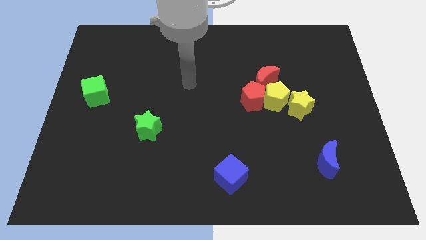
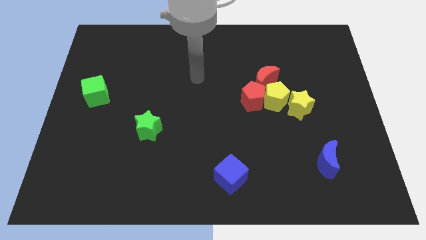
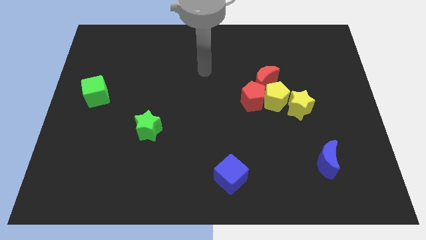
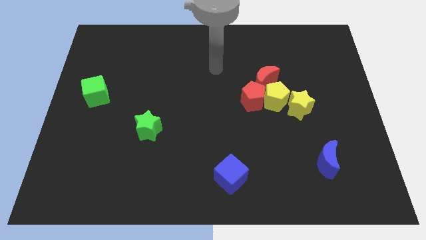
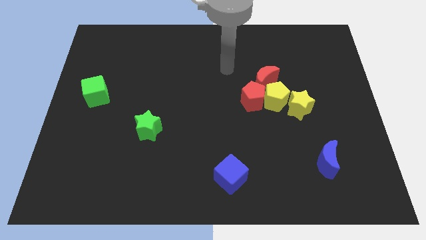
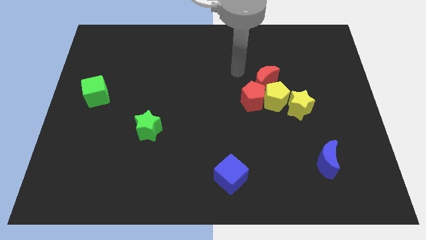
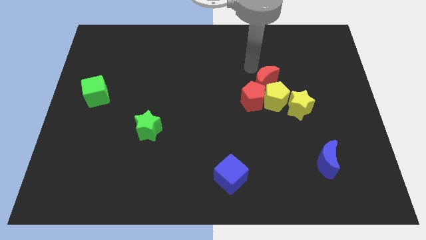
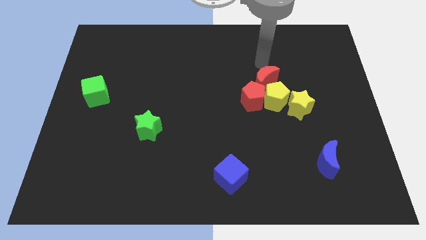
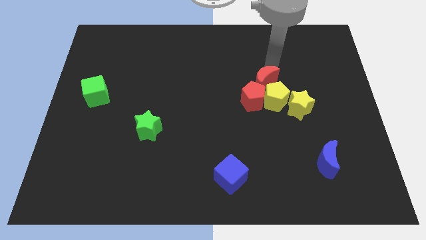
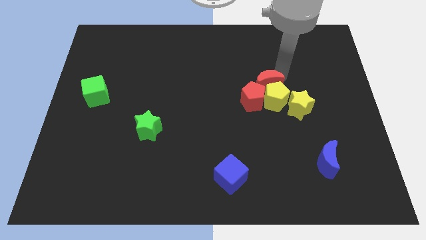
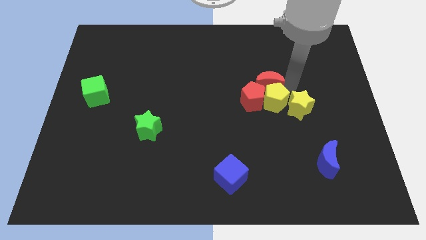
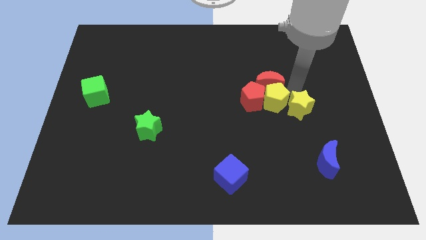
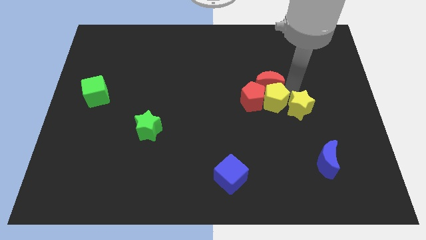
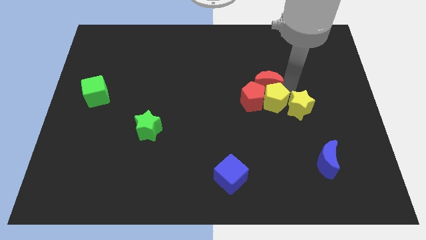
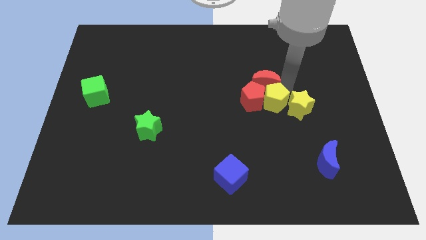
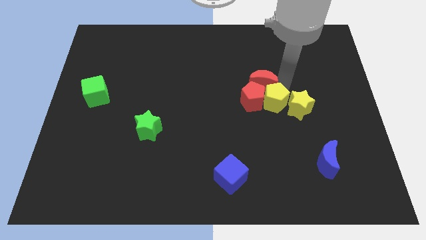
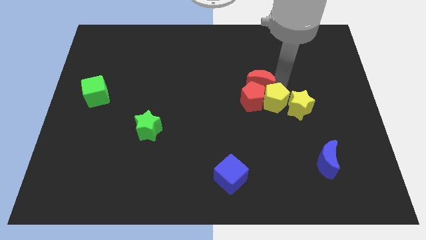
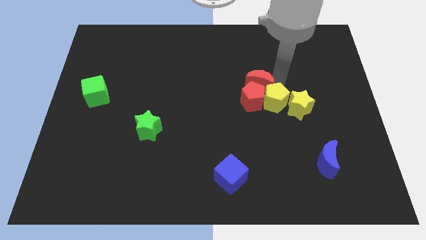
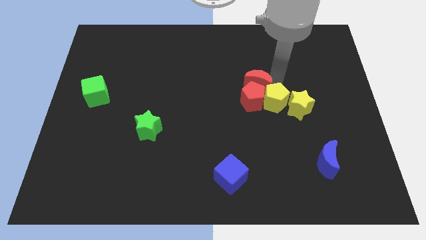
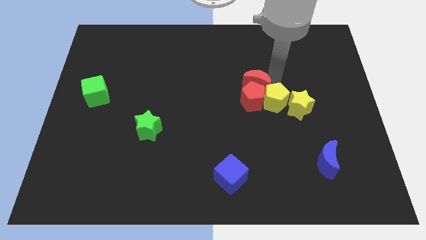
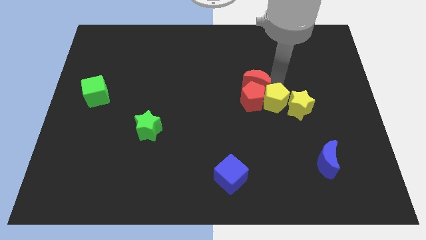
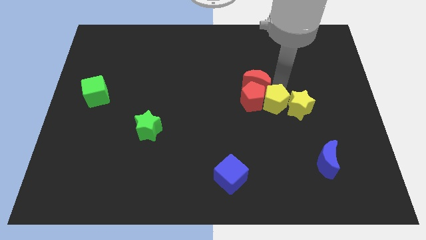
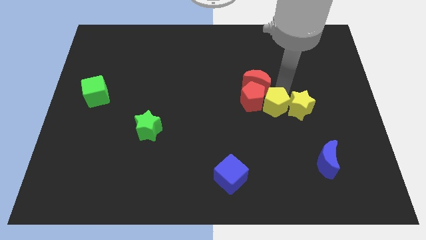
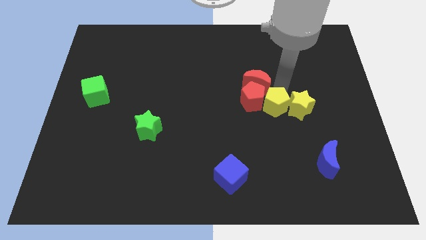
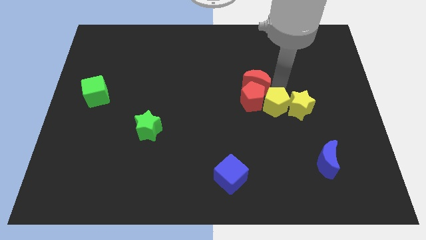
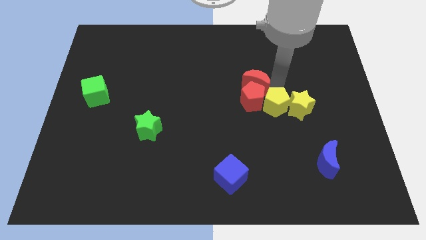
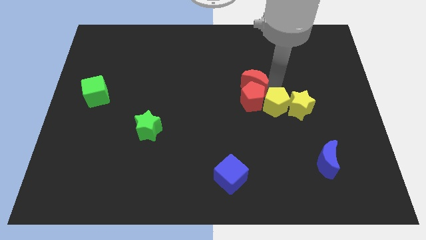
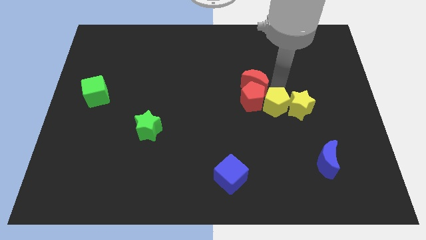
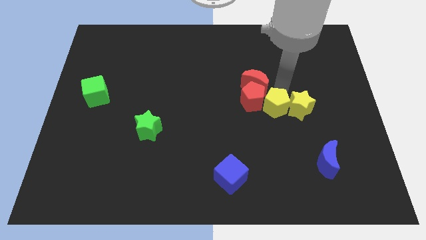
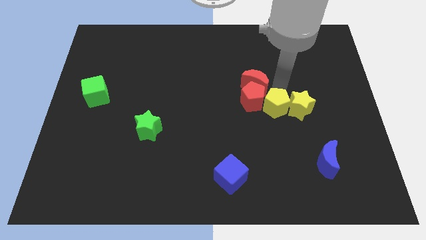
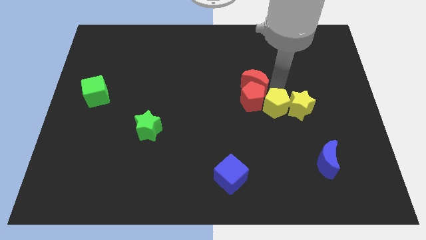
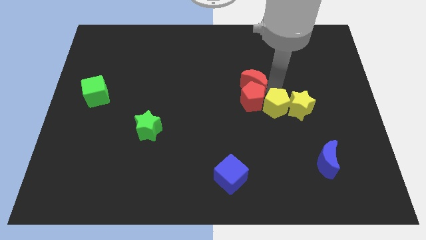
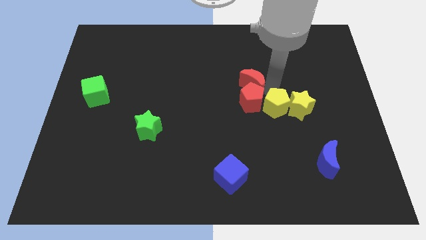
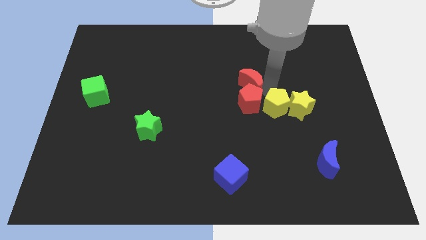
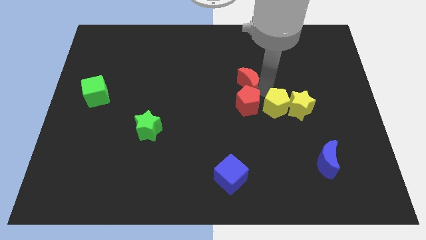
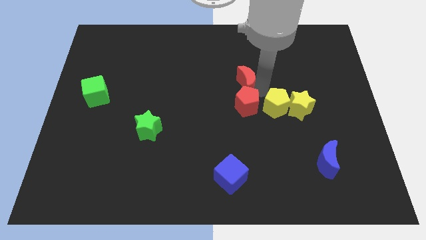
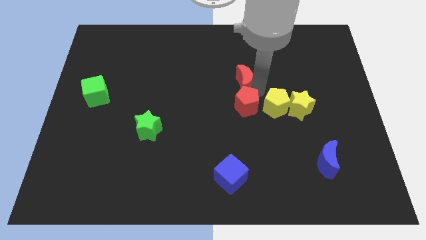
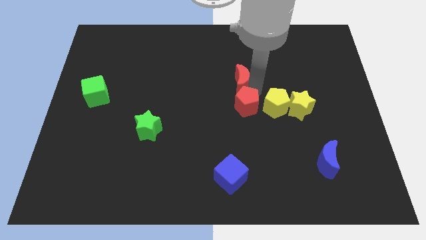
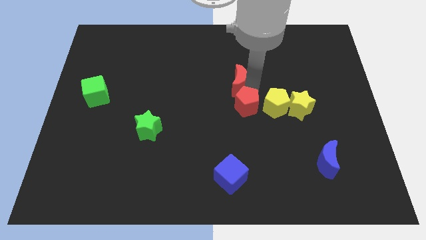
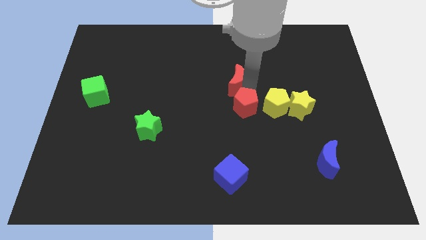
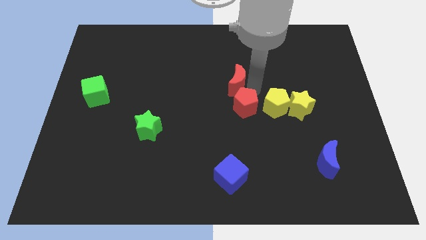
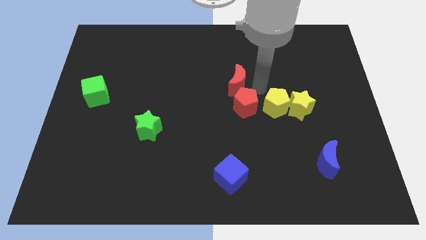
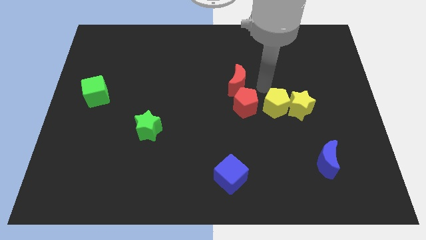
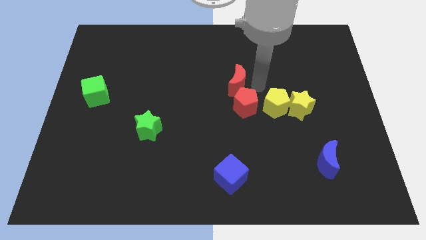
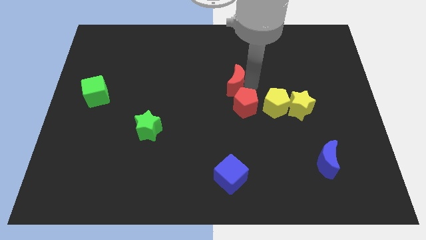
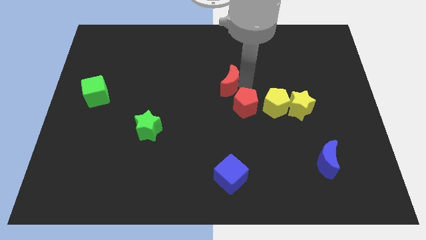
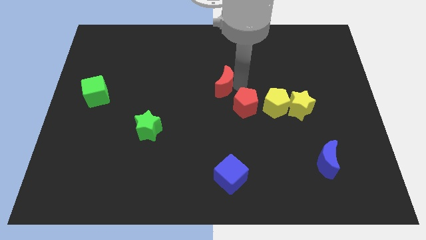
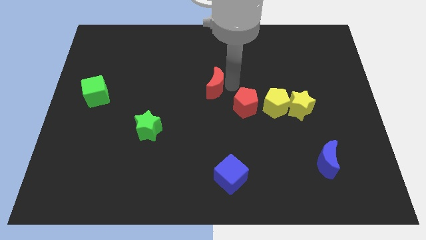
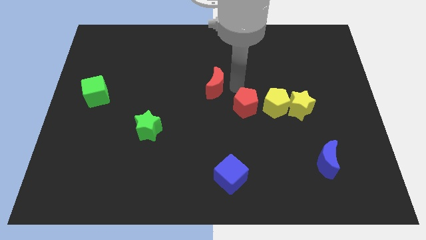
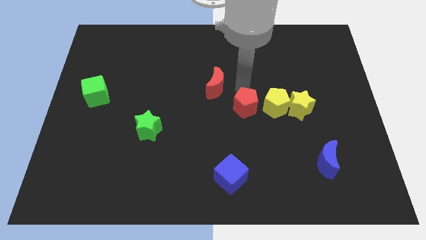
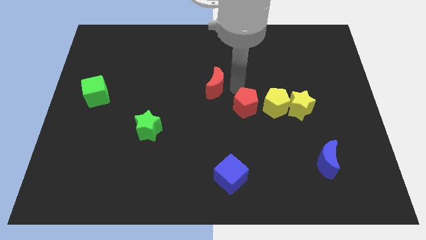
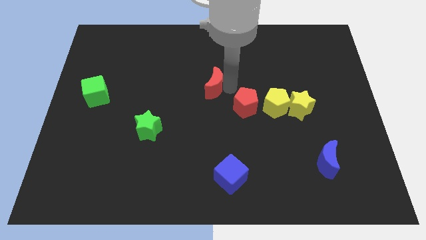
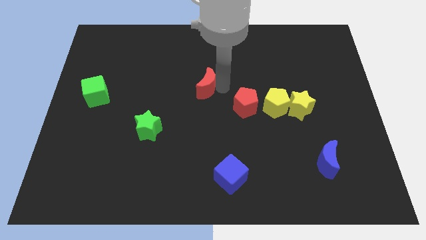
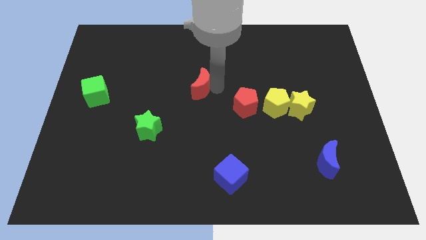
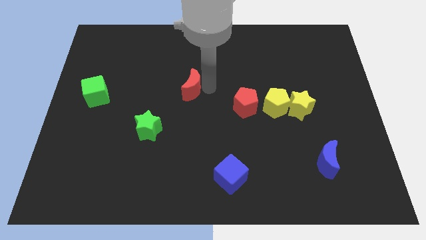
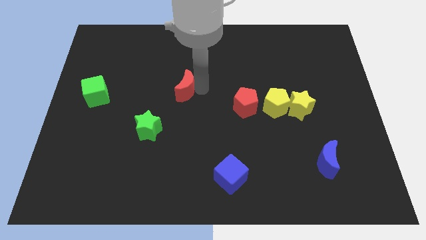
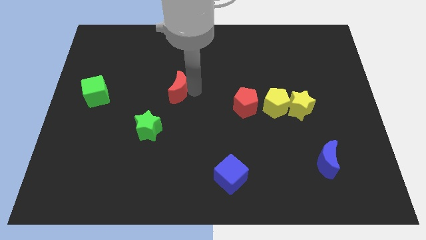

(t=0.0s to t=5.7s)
slide the red moon left

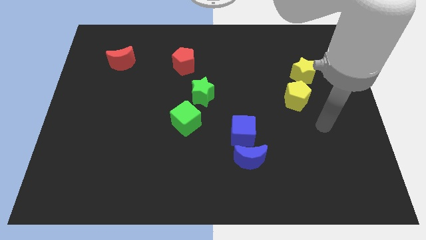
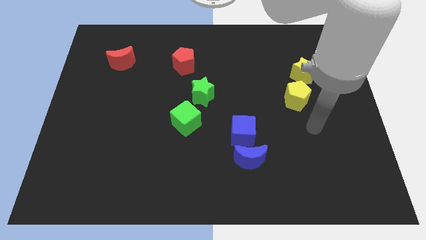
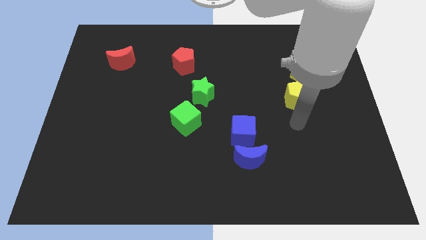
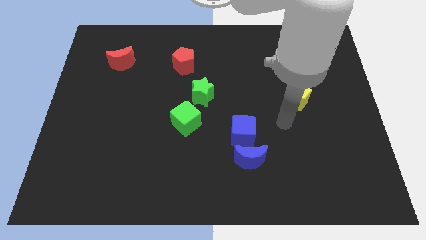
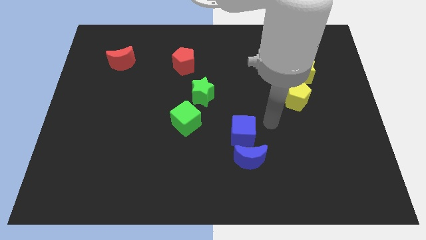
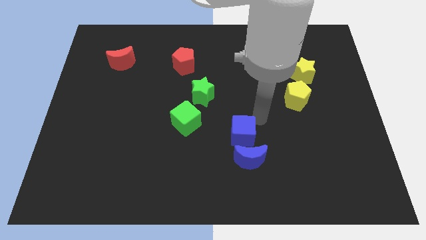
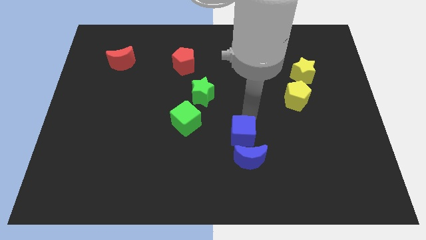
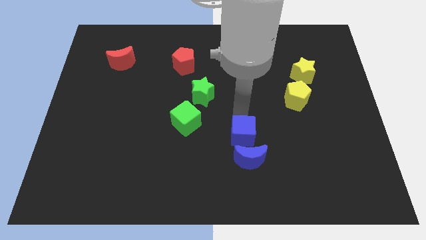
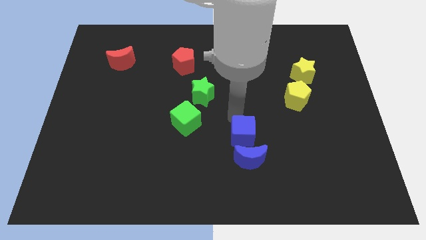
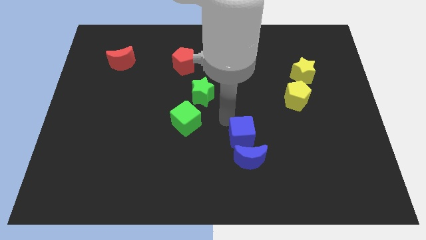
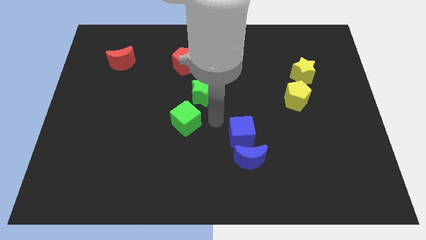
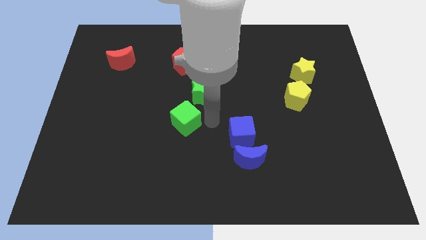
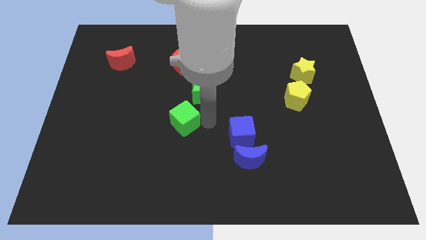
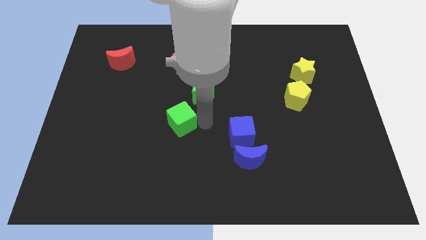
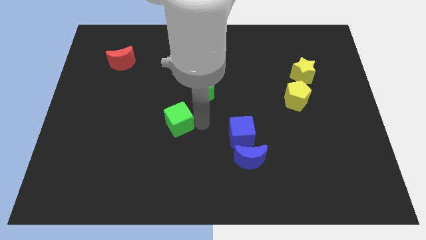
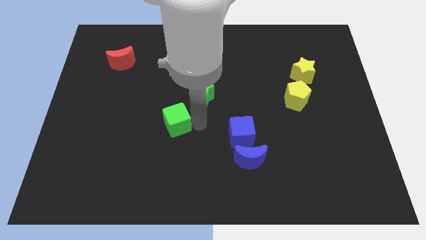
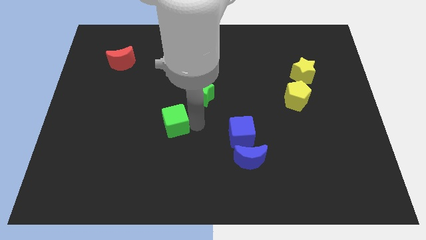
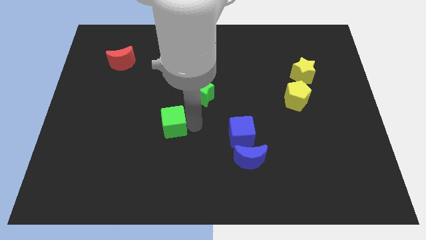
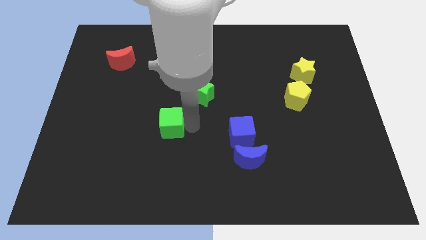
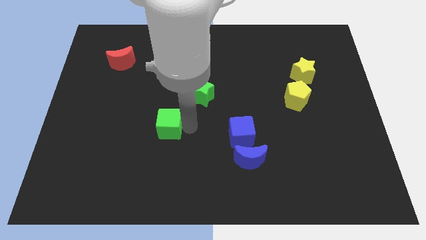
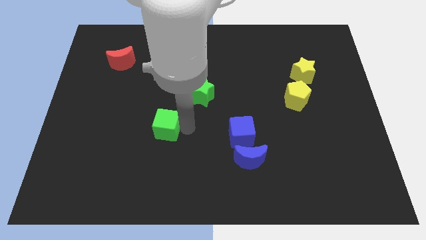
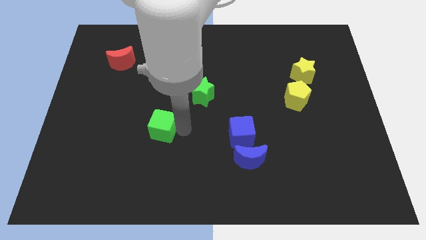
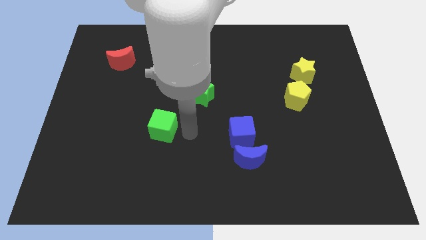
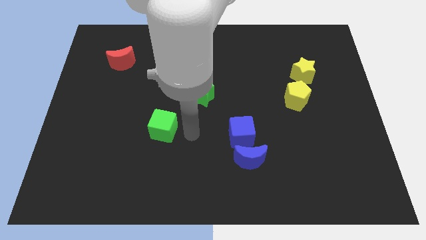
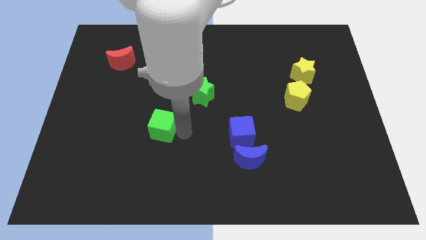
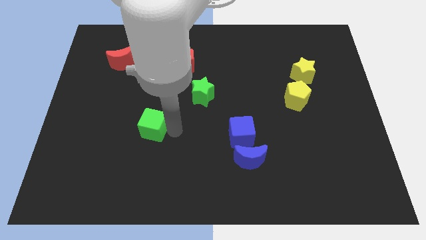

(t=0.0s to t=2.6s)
push the green cube left a little bit
